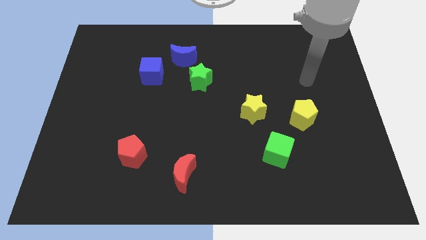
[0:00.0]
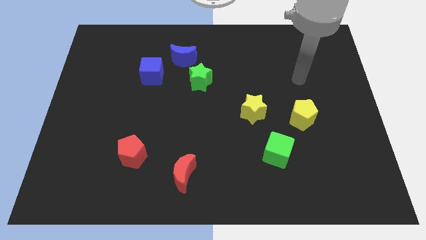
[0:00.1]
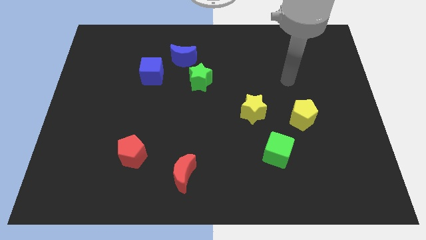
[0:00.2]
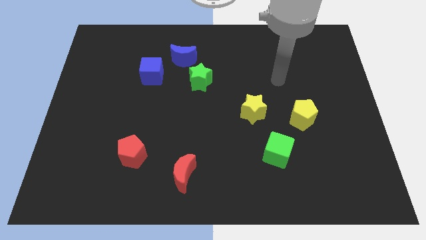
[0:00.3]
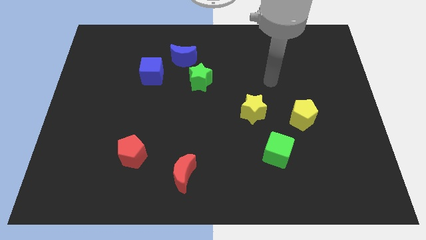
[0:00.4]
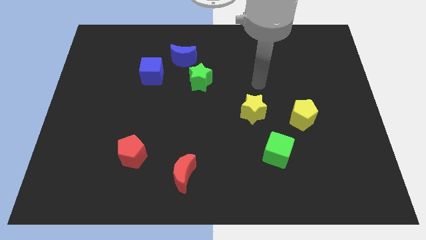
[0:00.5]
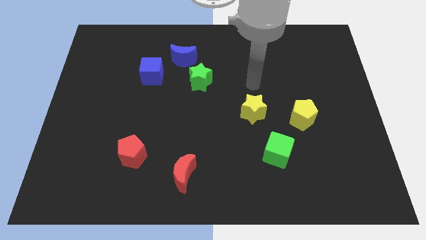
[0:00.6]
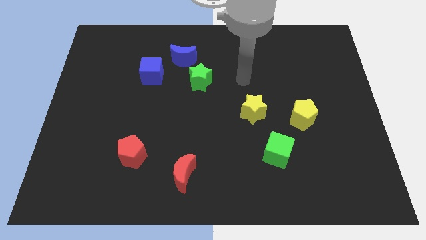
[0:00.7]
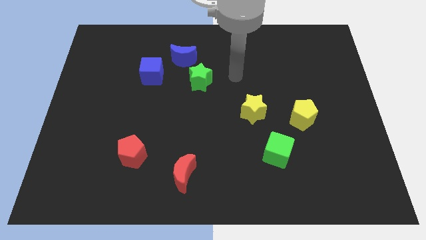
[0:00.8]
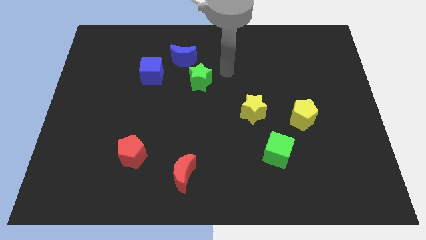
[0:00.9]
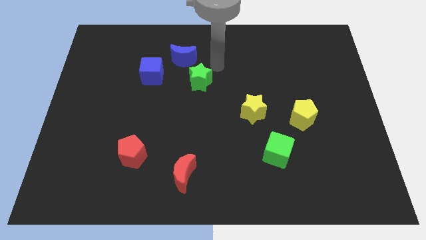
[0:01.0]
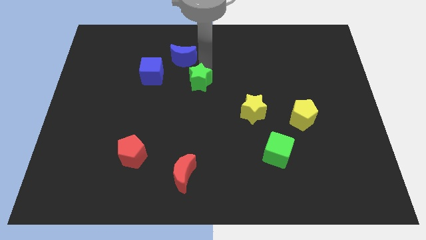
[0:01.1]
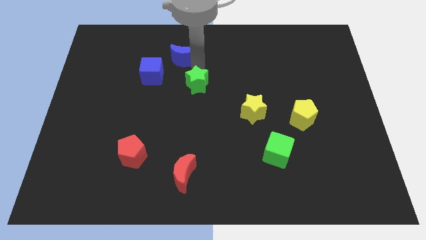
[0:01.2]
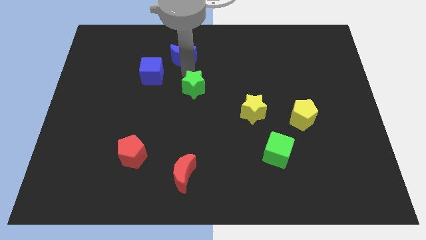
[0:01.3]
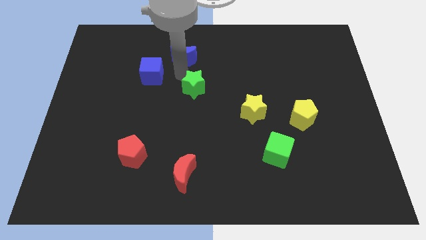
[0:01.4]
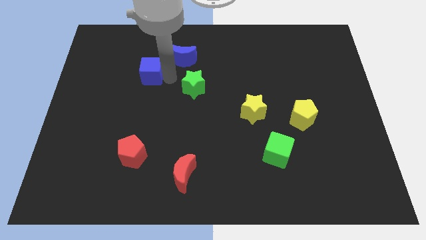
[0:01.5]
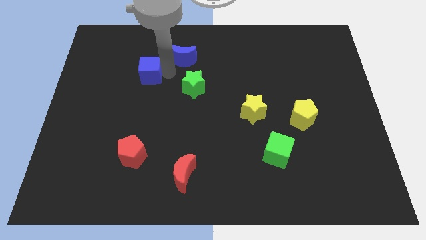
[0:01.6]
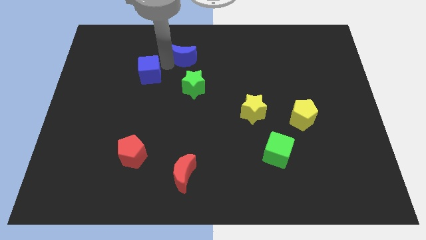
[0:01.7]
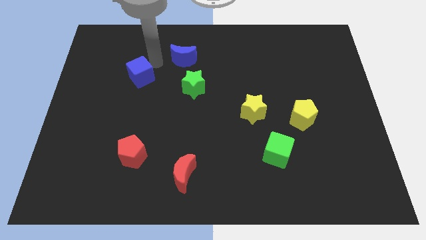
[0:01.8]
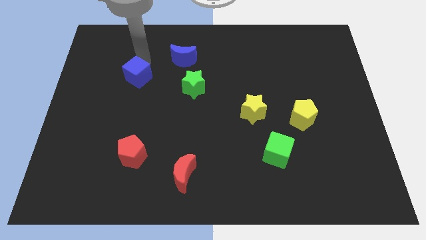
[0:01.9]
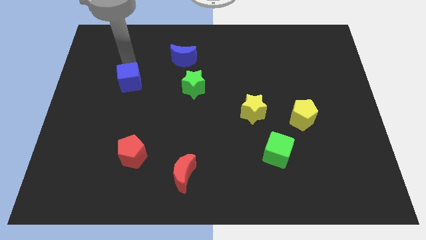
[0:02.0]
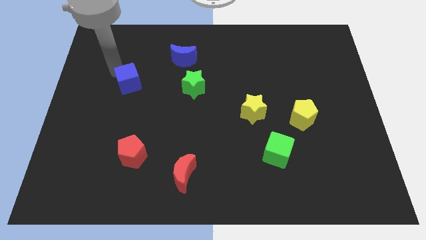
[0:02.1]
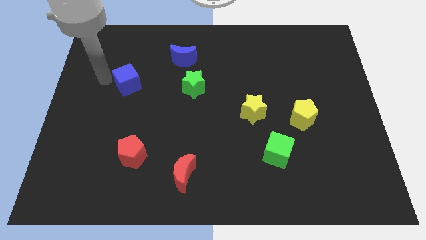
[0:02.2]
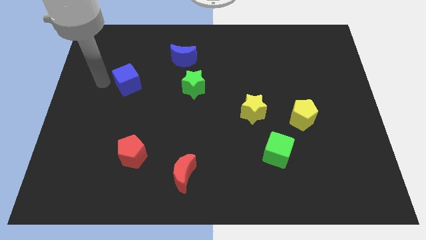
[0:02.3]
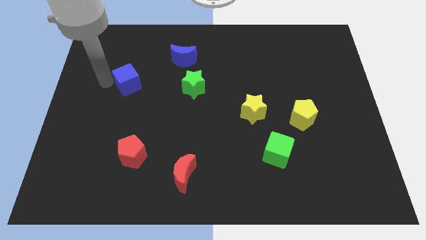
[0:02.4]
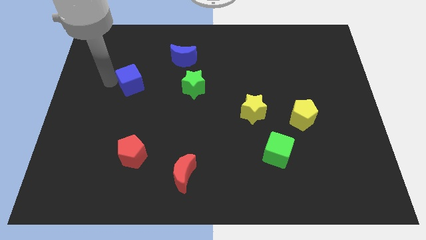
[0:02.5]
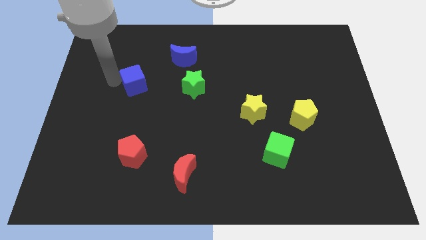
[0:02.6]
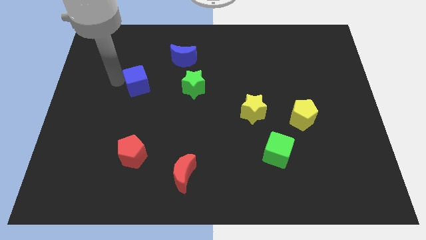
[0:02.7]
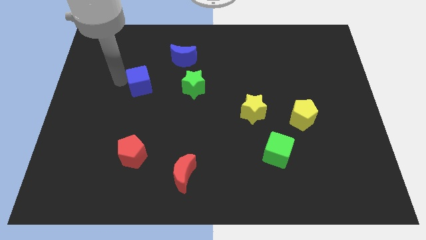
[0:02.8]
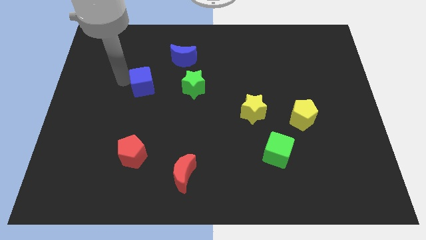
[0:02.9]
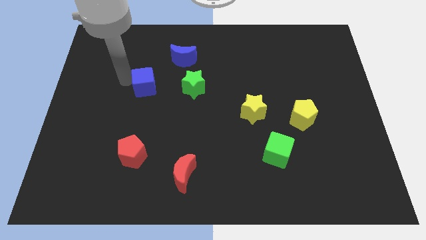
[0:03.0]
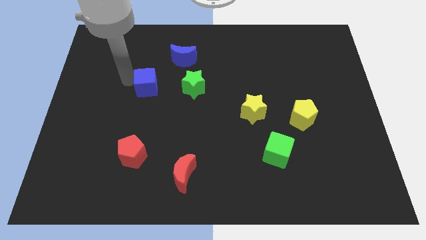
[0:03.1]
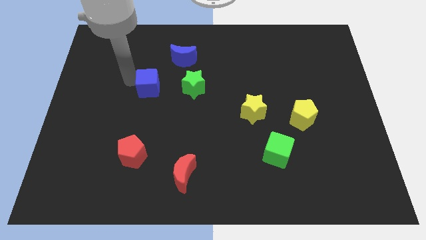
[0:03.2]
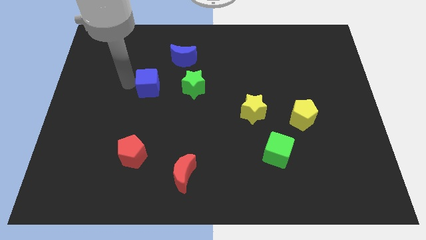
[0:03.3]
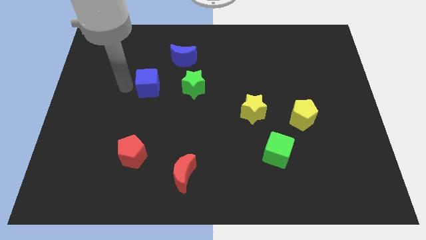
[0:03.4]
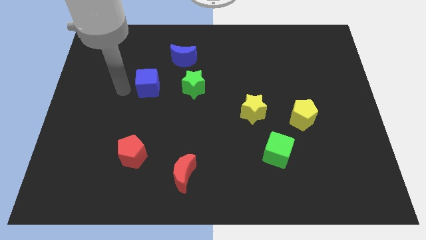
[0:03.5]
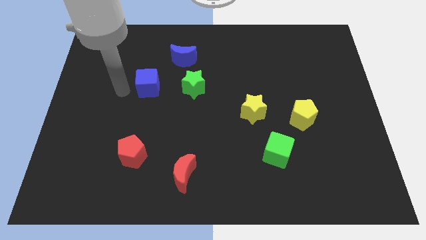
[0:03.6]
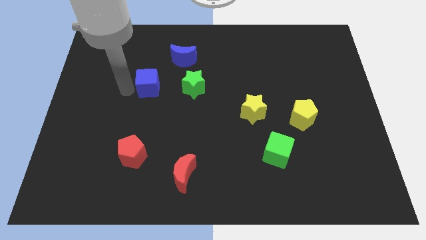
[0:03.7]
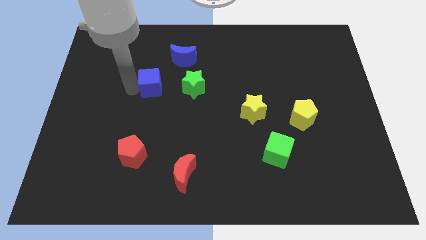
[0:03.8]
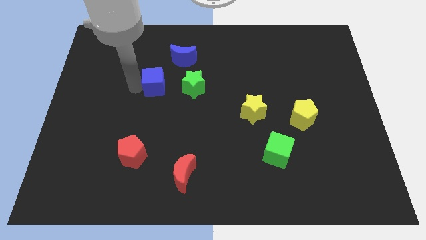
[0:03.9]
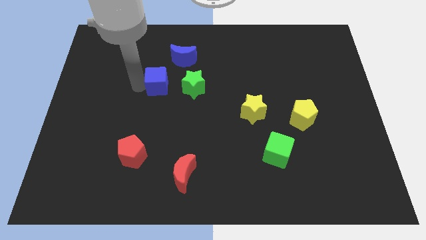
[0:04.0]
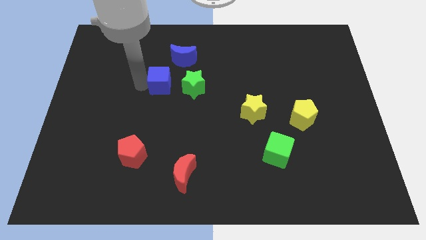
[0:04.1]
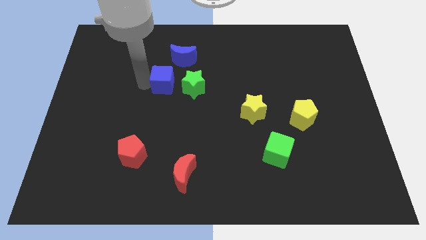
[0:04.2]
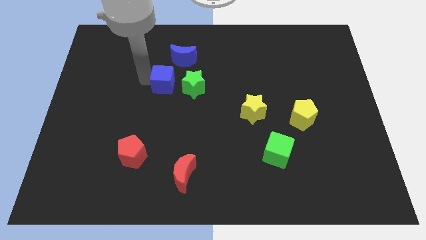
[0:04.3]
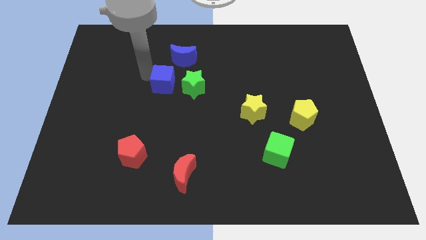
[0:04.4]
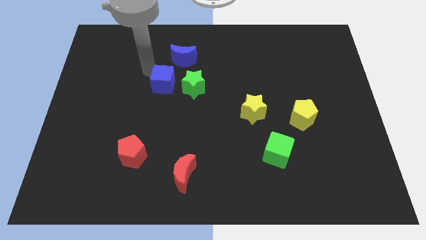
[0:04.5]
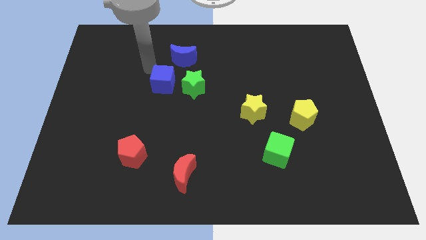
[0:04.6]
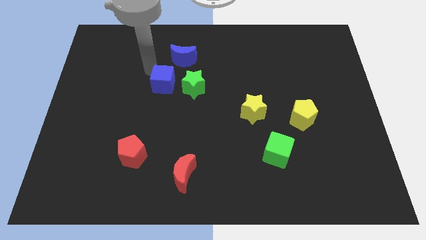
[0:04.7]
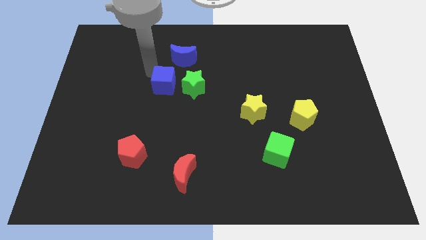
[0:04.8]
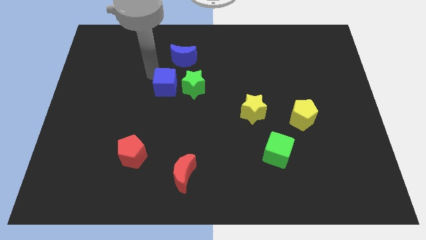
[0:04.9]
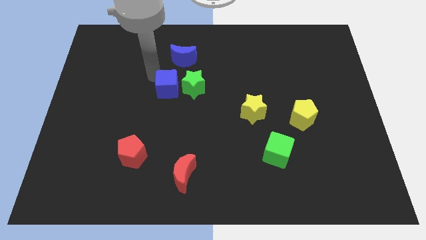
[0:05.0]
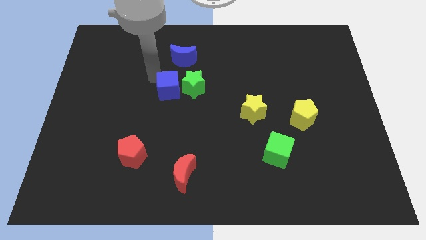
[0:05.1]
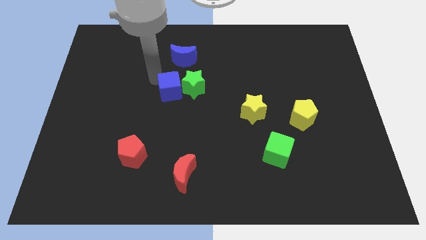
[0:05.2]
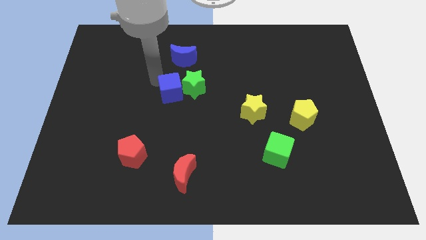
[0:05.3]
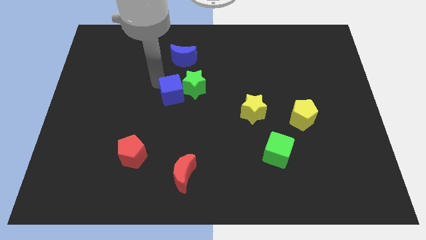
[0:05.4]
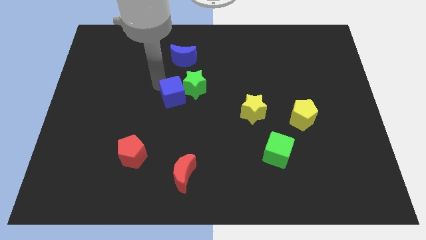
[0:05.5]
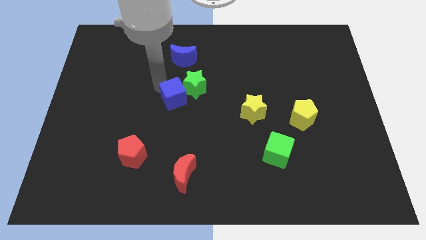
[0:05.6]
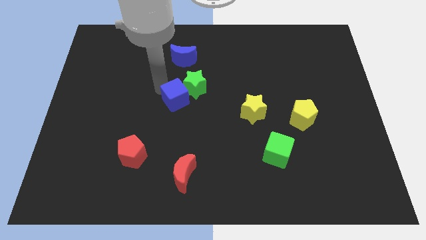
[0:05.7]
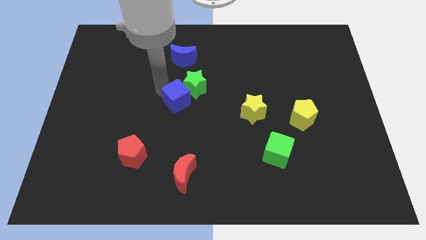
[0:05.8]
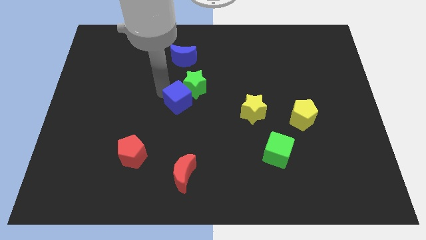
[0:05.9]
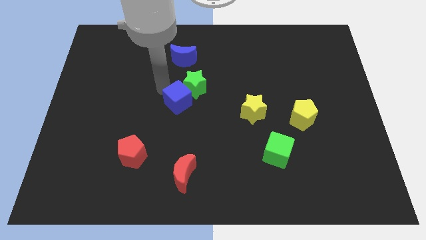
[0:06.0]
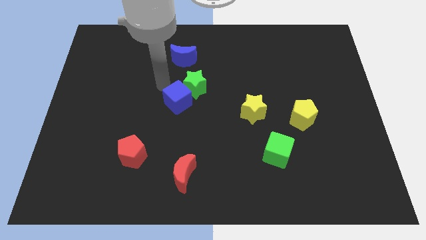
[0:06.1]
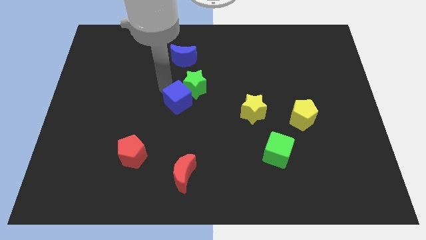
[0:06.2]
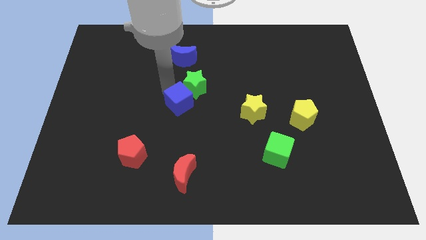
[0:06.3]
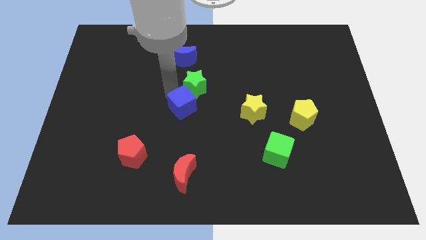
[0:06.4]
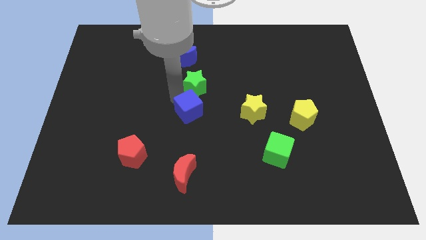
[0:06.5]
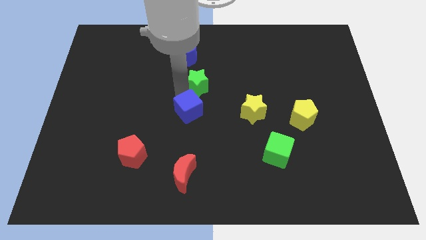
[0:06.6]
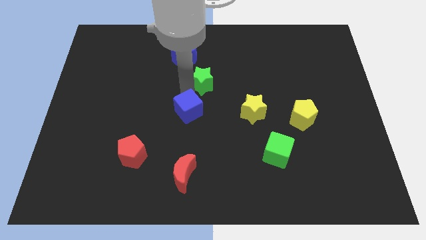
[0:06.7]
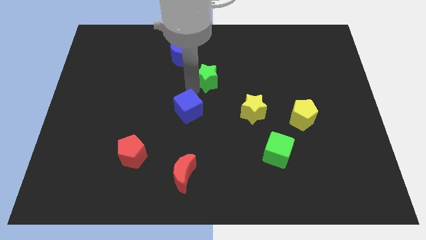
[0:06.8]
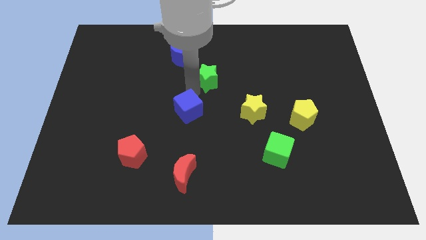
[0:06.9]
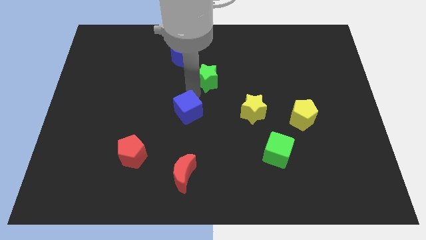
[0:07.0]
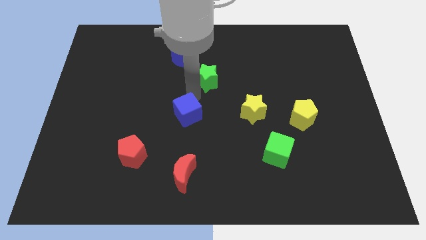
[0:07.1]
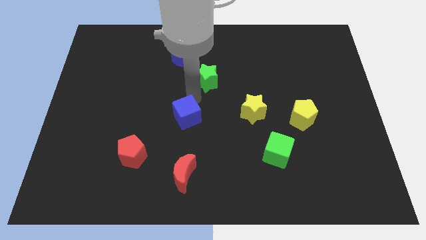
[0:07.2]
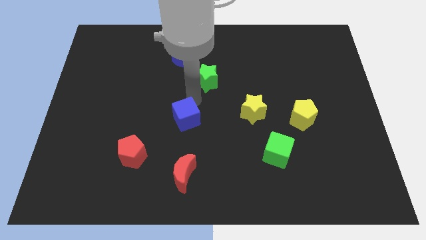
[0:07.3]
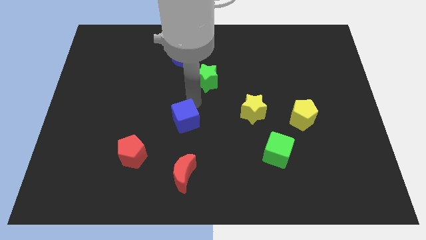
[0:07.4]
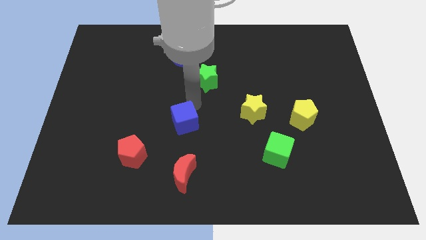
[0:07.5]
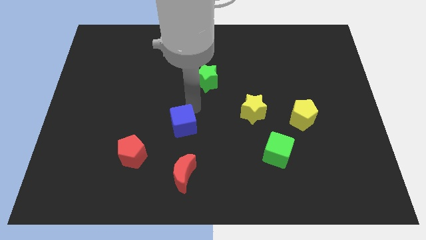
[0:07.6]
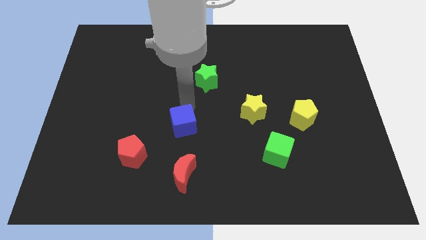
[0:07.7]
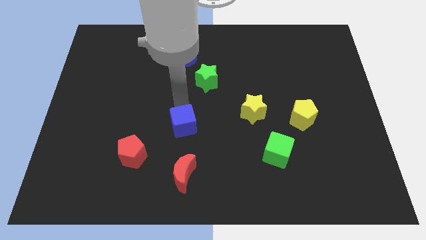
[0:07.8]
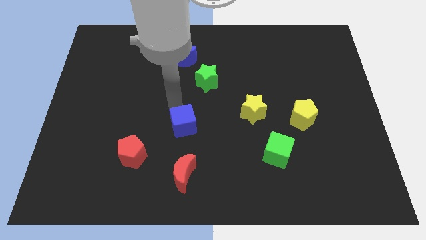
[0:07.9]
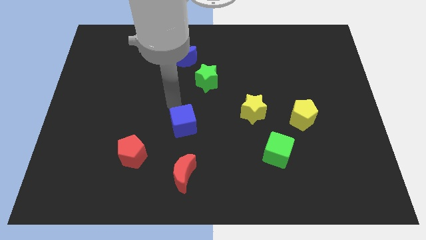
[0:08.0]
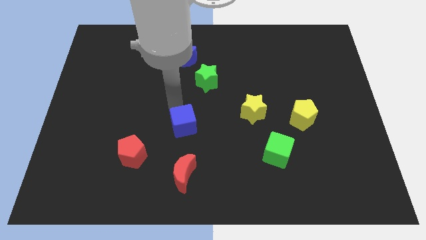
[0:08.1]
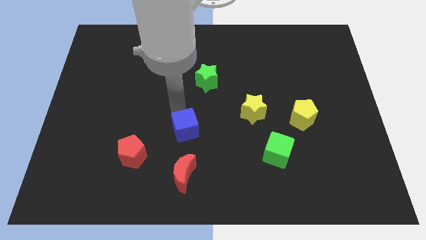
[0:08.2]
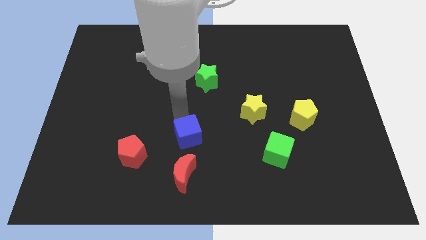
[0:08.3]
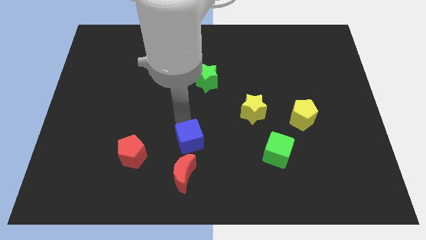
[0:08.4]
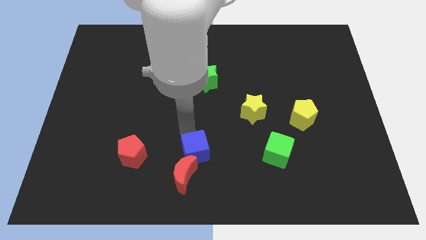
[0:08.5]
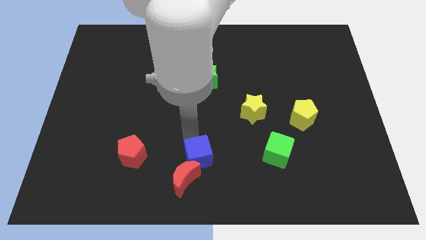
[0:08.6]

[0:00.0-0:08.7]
push the blue cube to the bottom side
